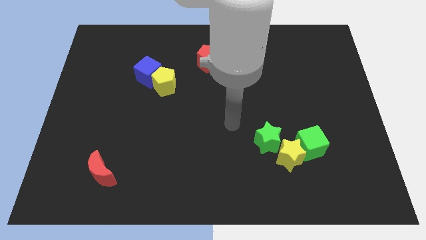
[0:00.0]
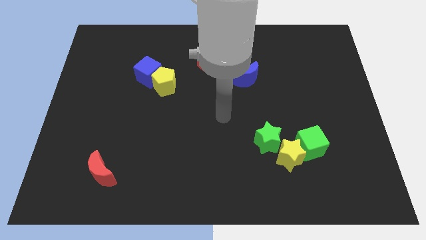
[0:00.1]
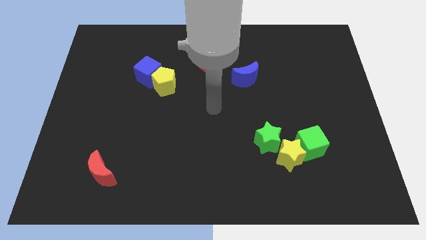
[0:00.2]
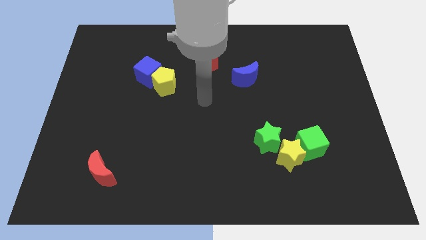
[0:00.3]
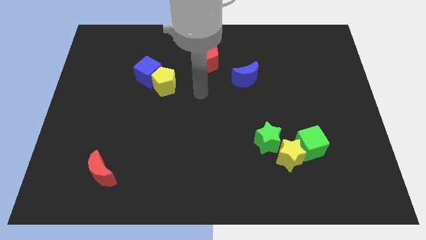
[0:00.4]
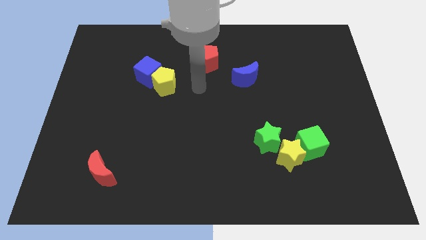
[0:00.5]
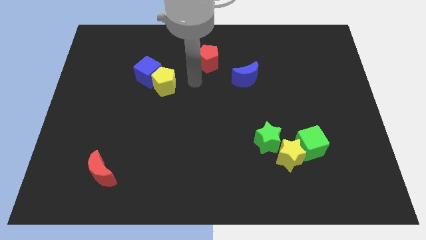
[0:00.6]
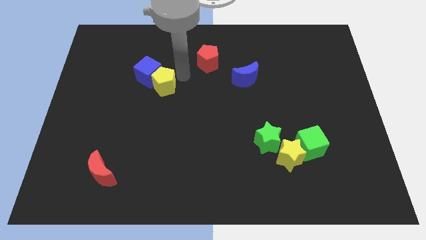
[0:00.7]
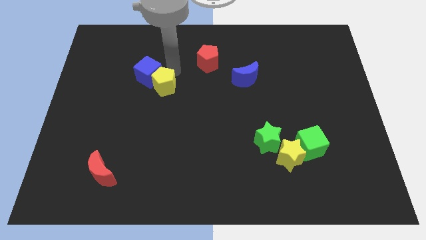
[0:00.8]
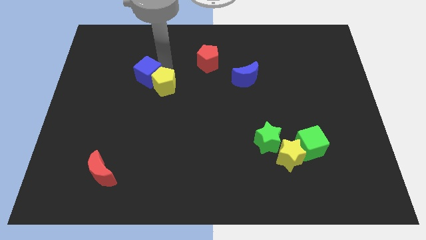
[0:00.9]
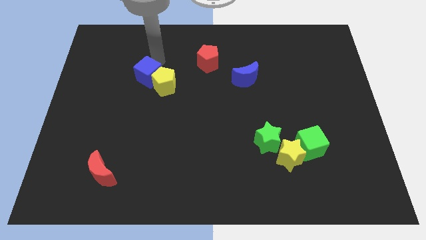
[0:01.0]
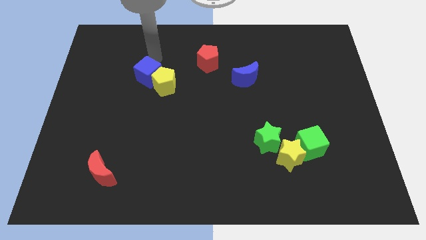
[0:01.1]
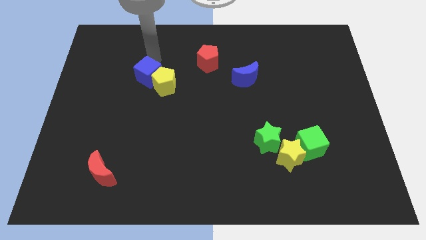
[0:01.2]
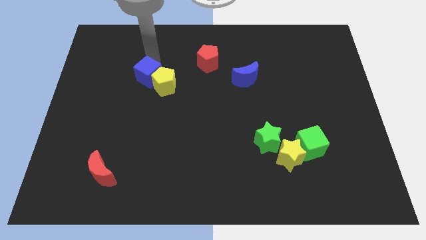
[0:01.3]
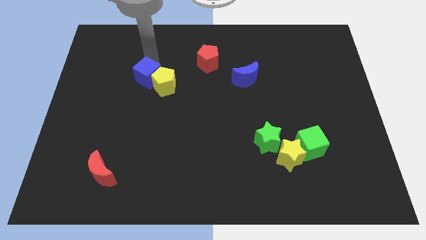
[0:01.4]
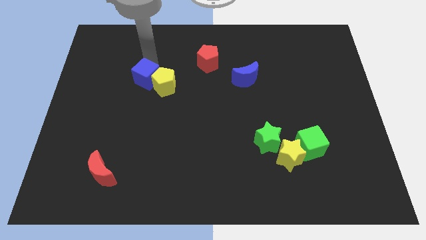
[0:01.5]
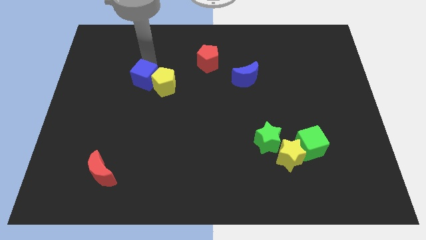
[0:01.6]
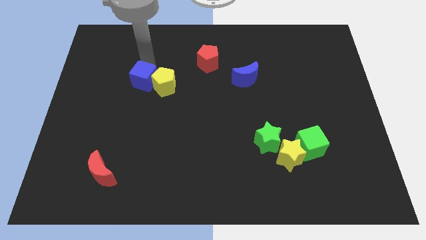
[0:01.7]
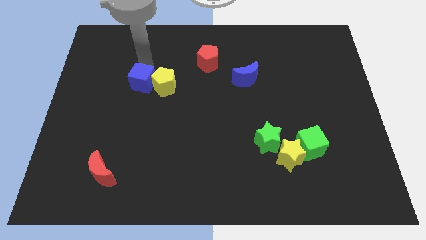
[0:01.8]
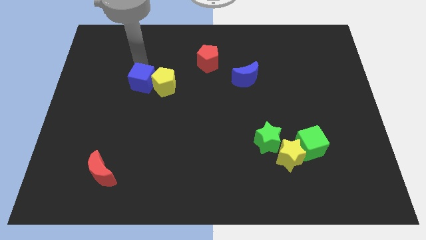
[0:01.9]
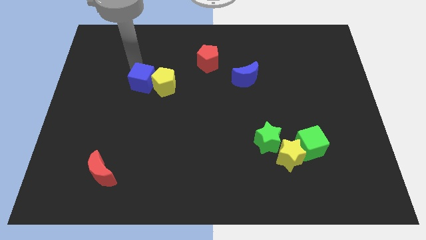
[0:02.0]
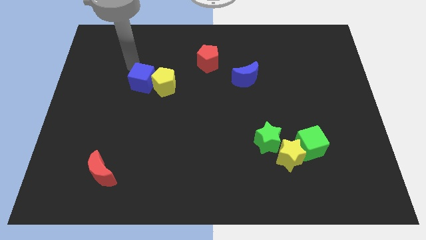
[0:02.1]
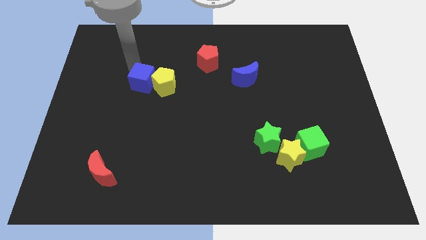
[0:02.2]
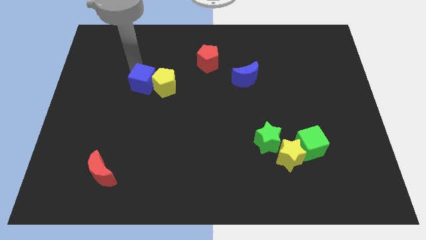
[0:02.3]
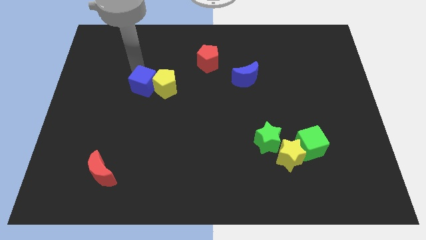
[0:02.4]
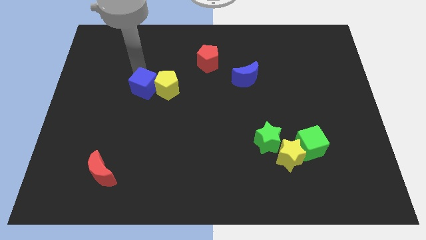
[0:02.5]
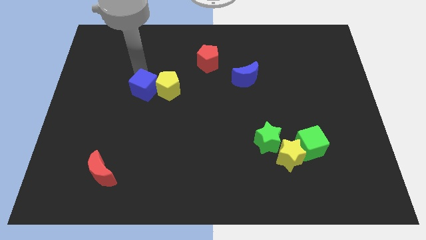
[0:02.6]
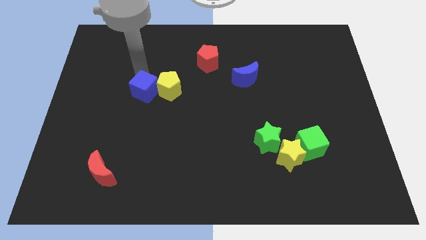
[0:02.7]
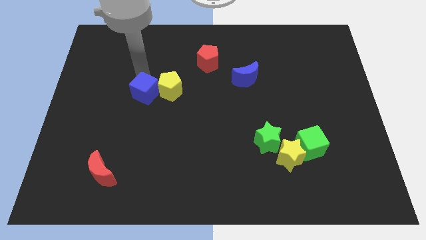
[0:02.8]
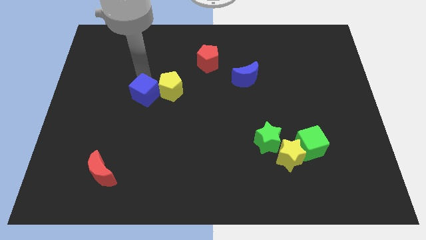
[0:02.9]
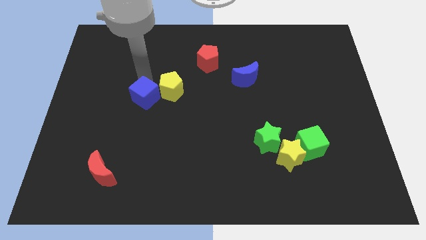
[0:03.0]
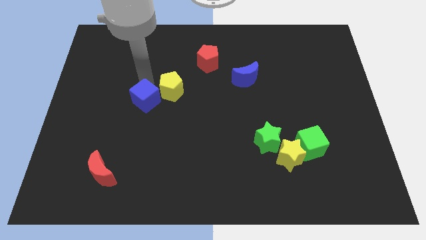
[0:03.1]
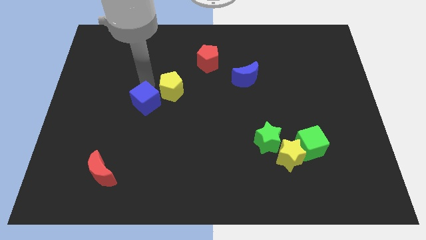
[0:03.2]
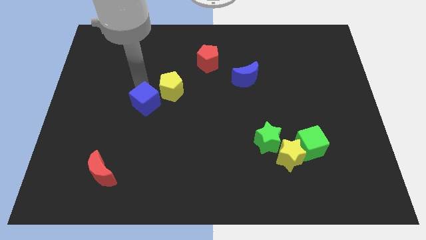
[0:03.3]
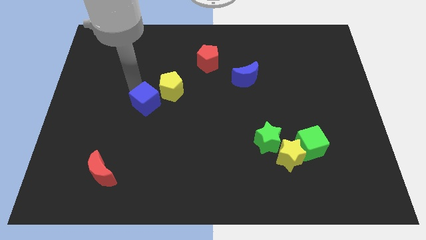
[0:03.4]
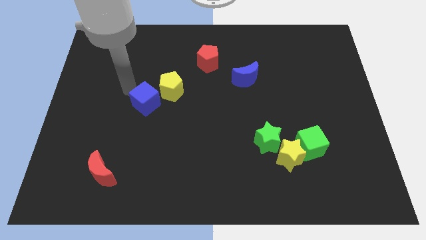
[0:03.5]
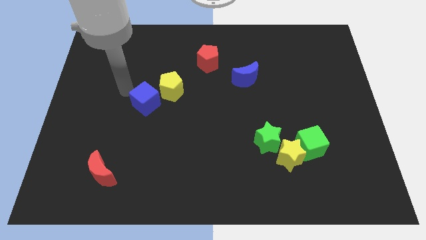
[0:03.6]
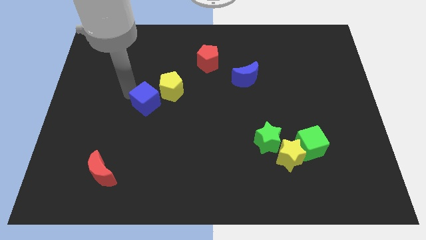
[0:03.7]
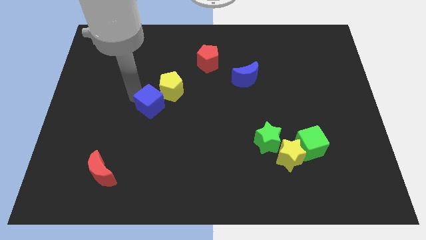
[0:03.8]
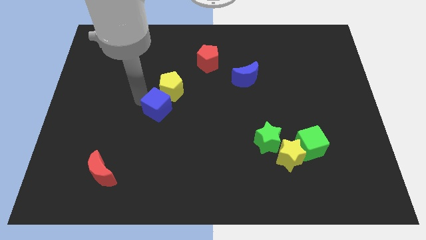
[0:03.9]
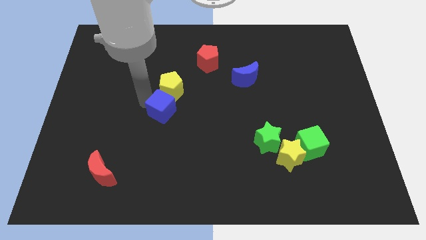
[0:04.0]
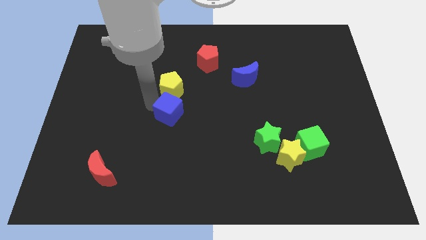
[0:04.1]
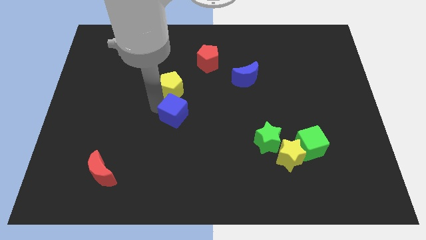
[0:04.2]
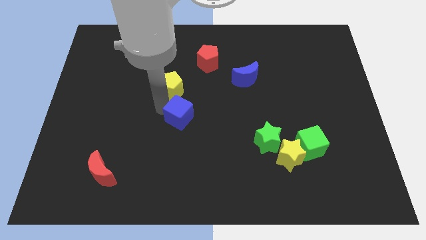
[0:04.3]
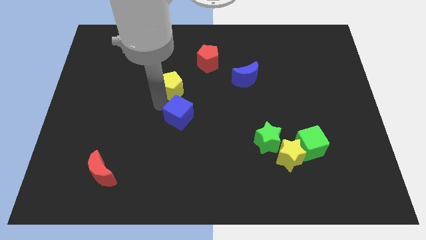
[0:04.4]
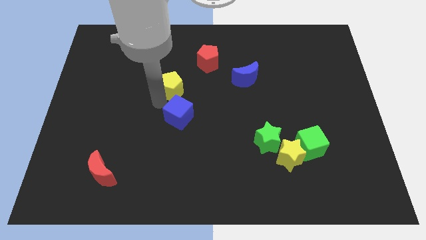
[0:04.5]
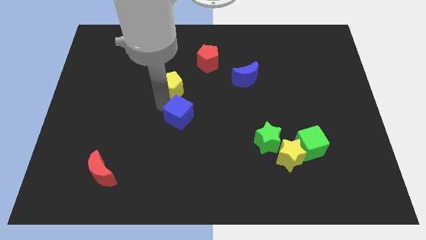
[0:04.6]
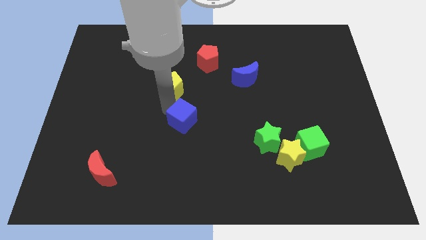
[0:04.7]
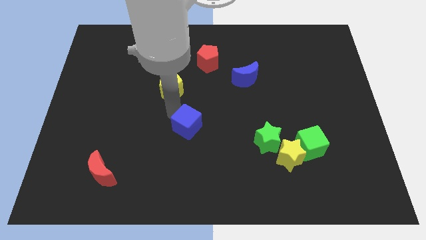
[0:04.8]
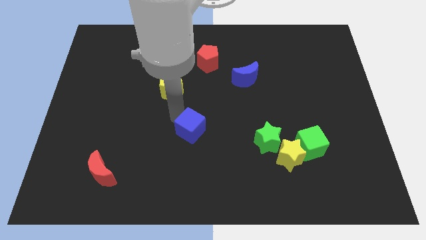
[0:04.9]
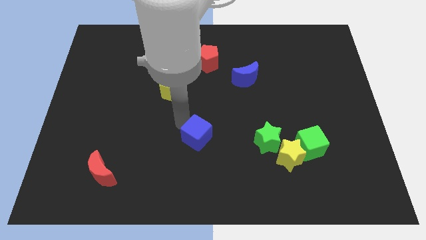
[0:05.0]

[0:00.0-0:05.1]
push the blue cube downwards and then right

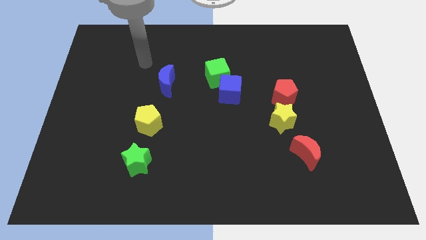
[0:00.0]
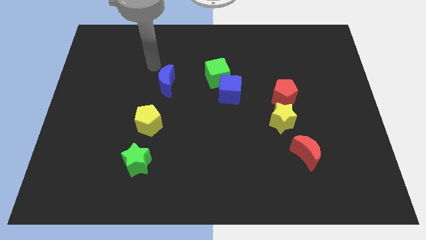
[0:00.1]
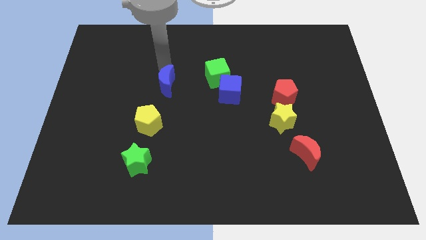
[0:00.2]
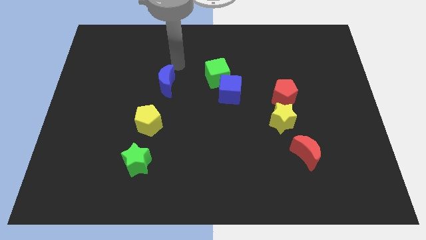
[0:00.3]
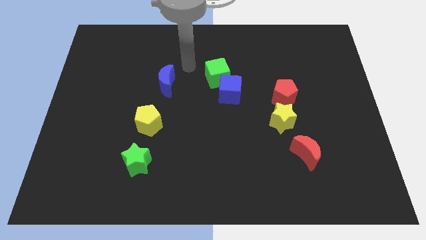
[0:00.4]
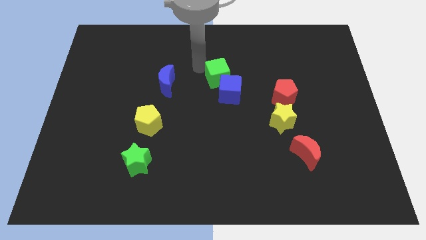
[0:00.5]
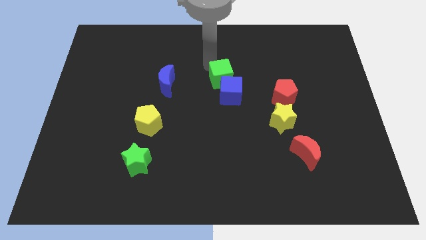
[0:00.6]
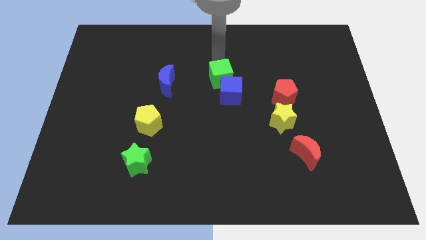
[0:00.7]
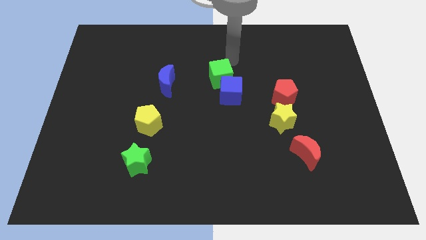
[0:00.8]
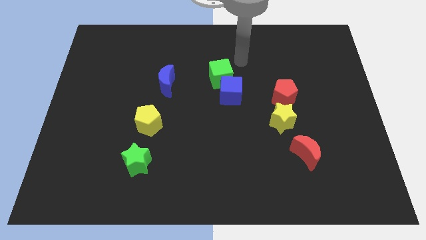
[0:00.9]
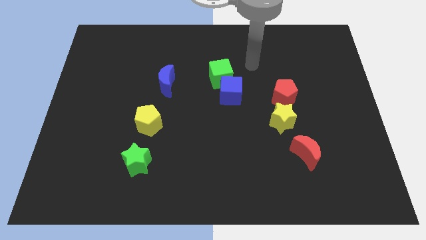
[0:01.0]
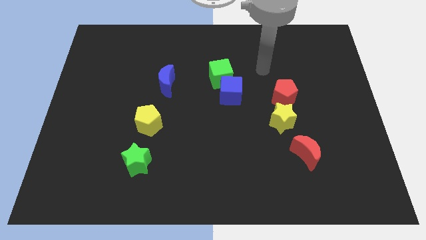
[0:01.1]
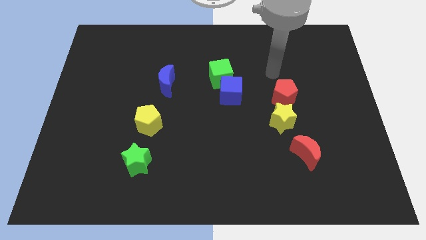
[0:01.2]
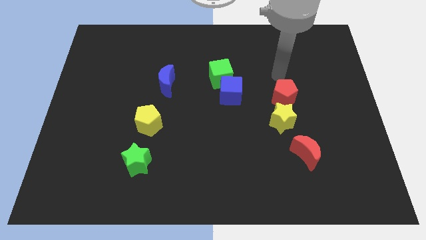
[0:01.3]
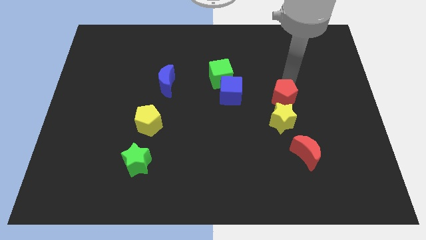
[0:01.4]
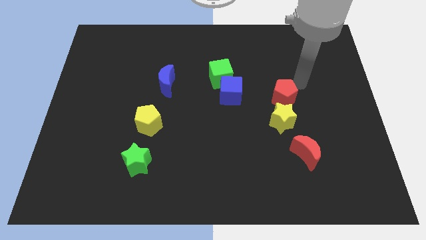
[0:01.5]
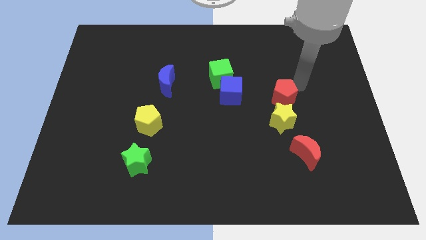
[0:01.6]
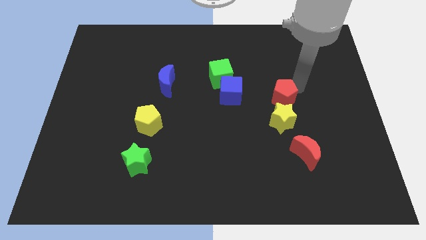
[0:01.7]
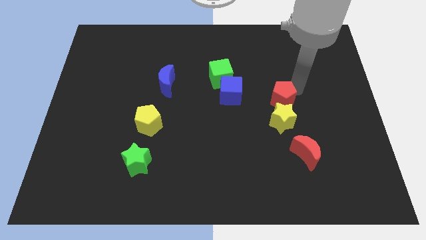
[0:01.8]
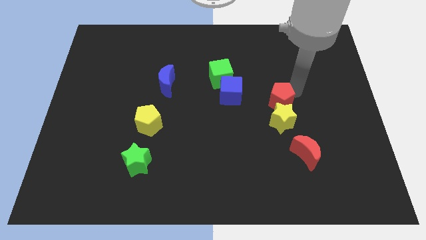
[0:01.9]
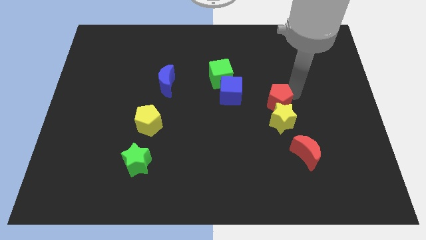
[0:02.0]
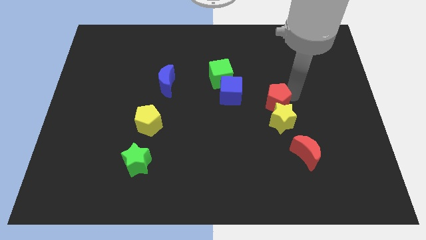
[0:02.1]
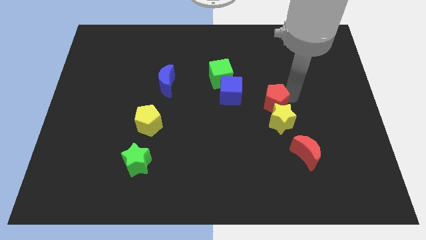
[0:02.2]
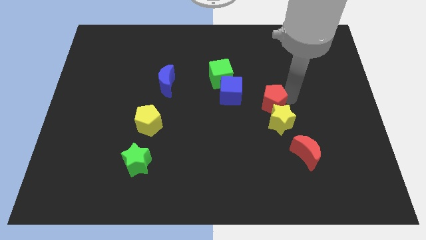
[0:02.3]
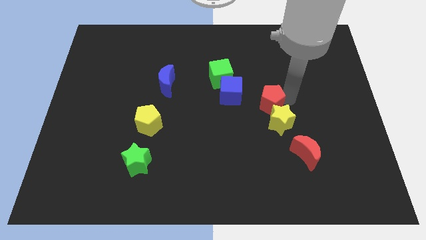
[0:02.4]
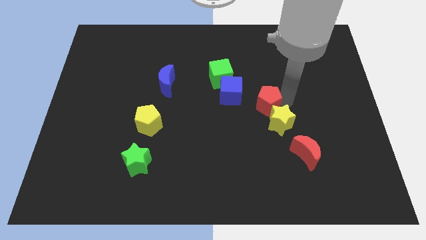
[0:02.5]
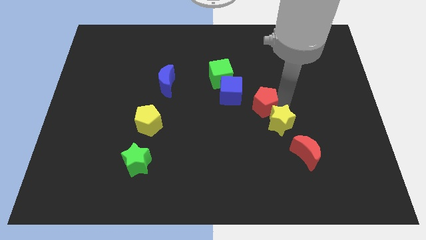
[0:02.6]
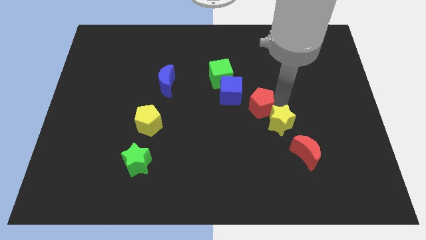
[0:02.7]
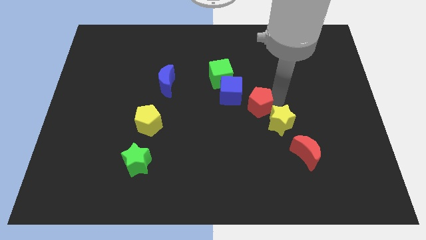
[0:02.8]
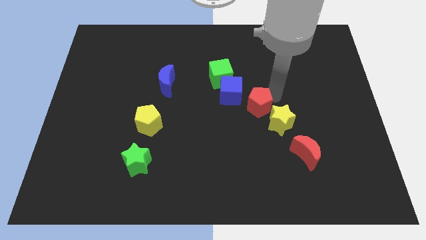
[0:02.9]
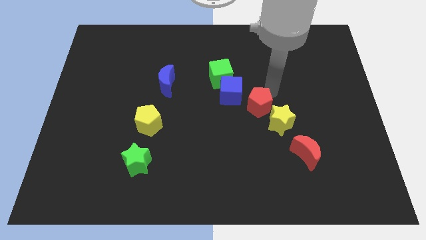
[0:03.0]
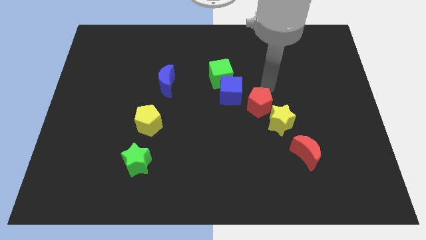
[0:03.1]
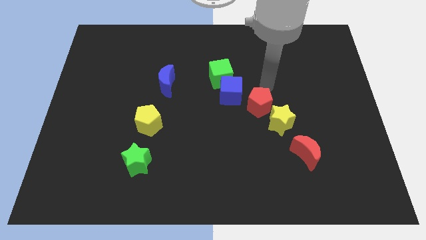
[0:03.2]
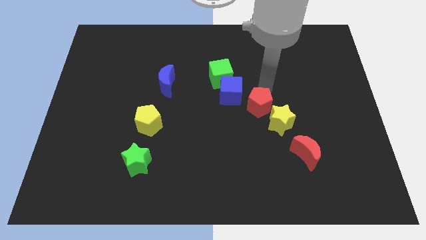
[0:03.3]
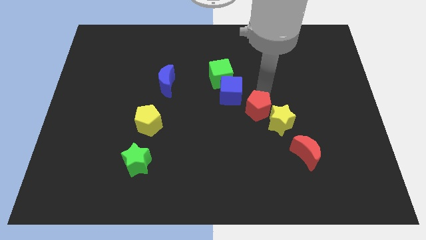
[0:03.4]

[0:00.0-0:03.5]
slide the red pentagon a little bit diagonally down and to the left
